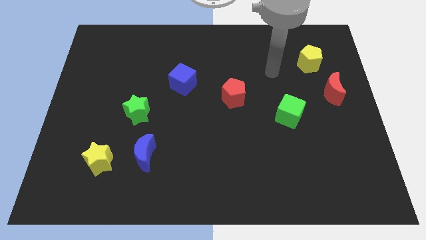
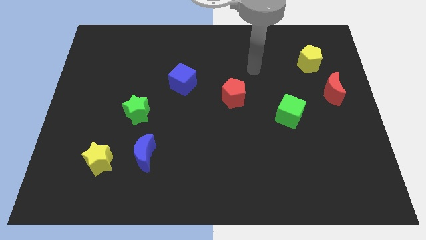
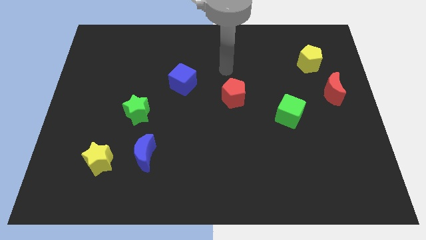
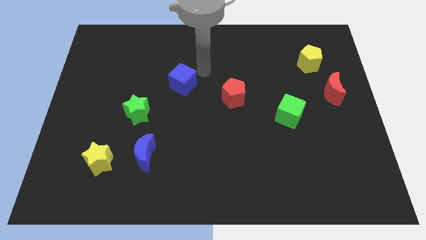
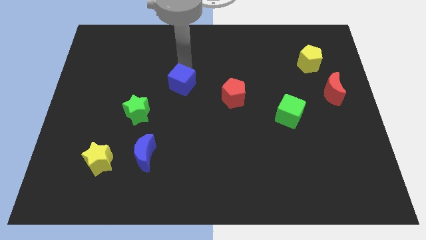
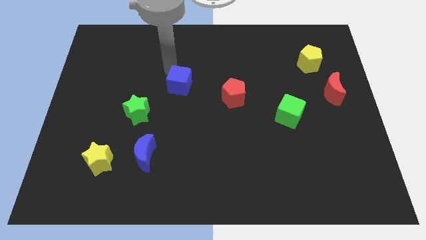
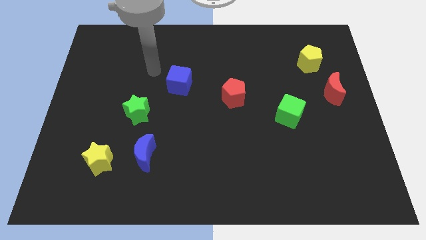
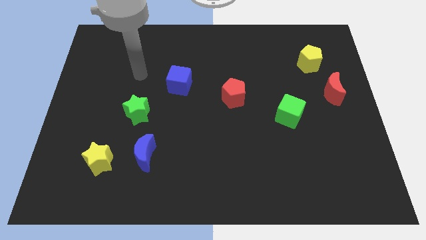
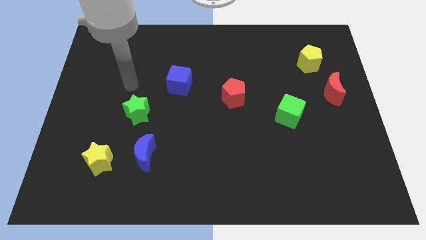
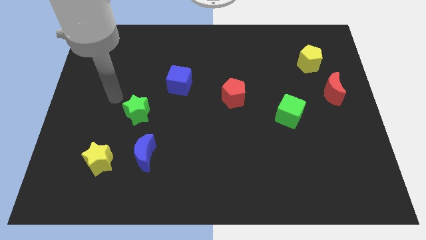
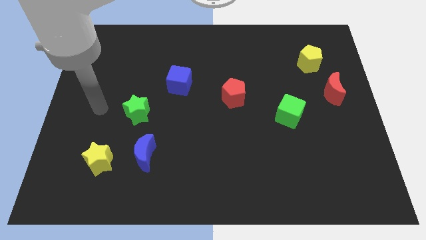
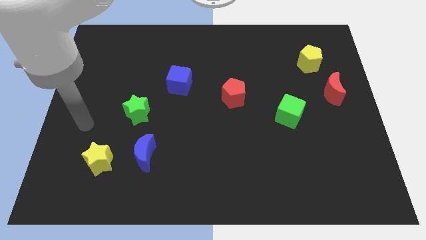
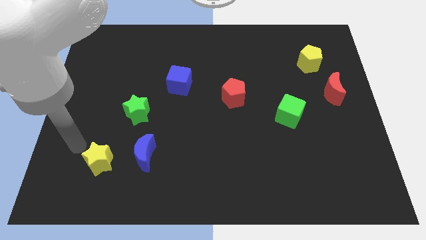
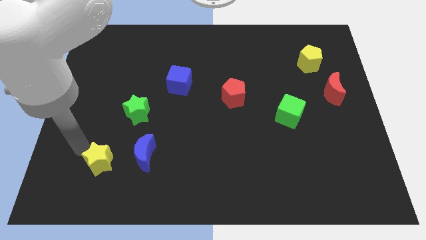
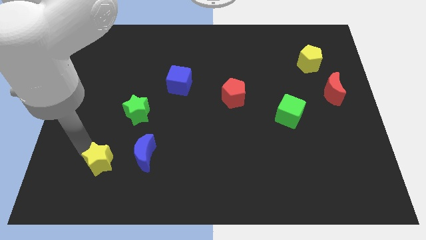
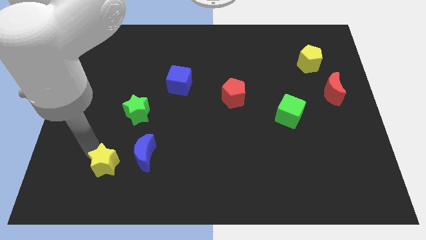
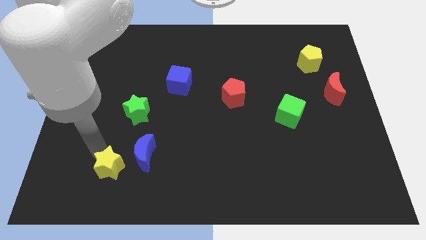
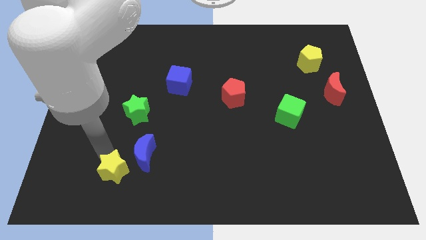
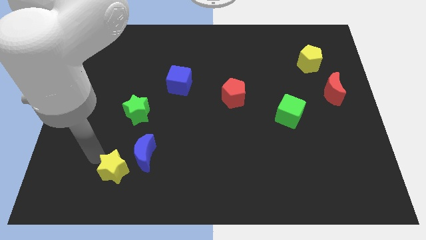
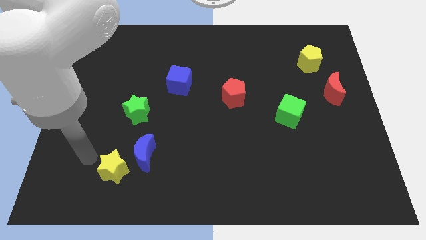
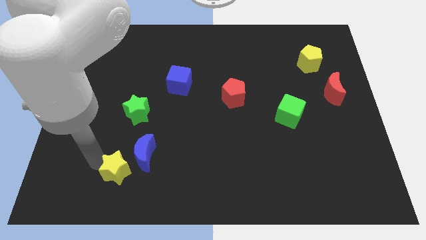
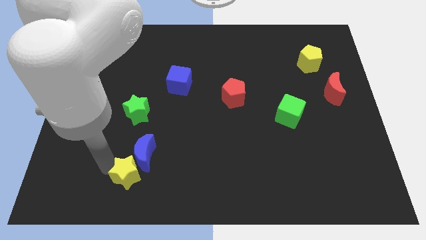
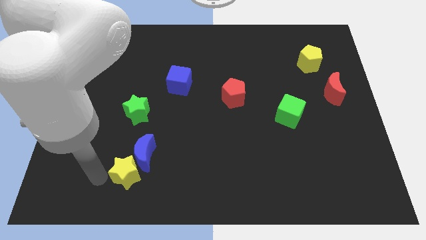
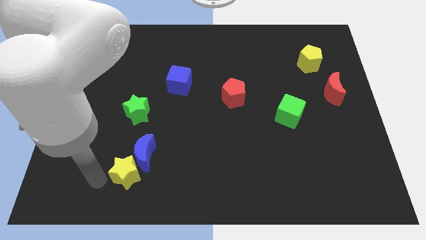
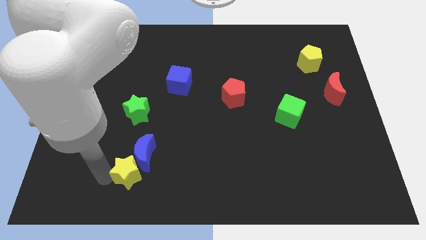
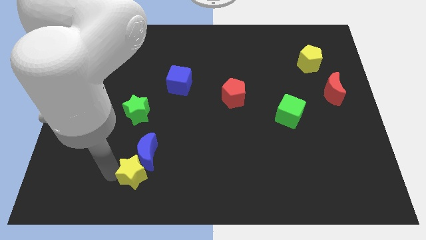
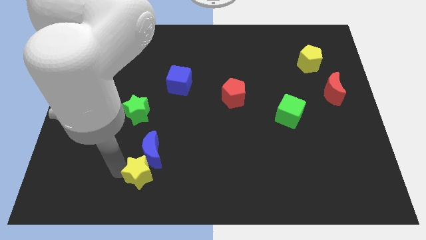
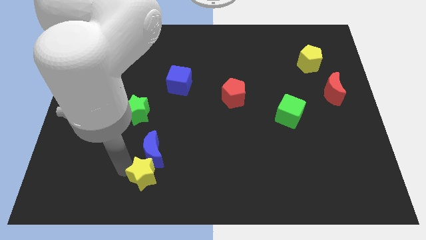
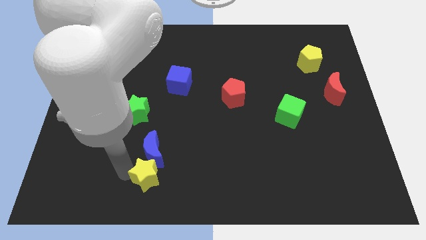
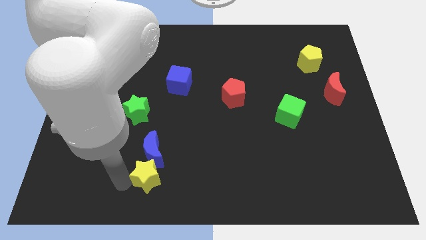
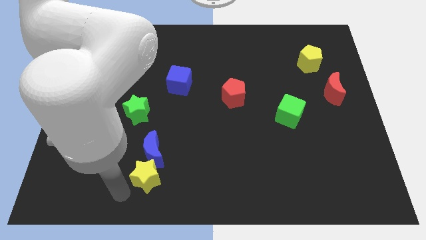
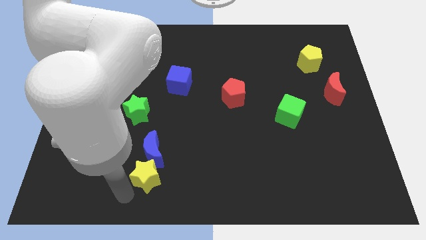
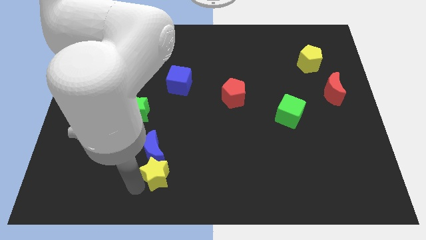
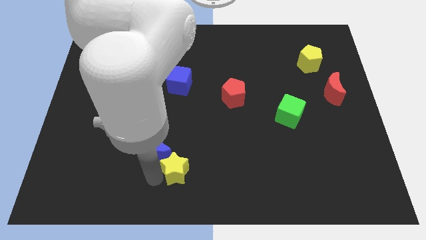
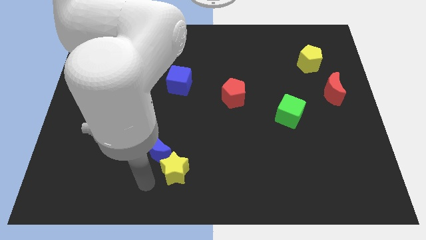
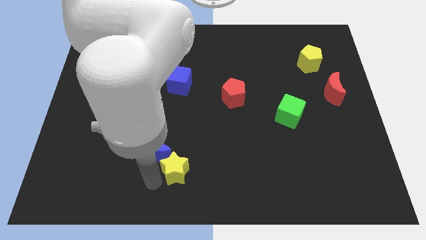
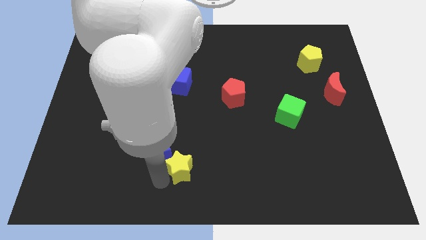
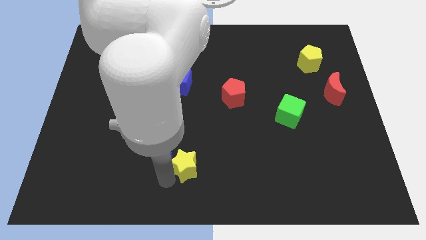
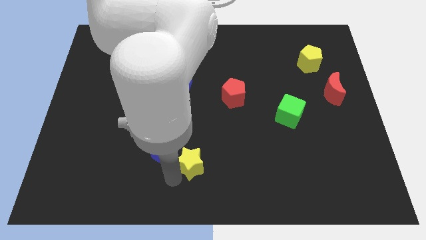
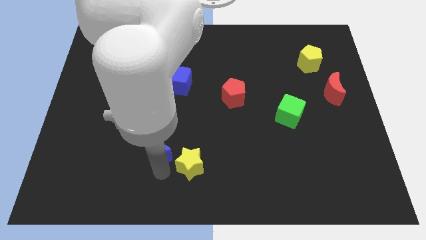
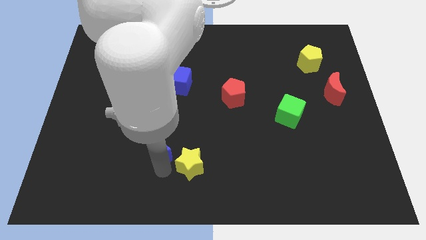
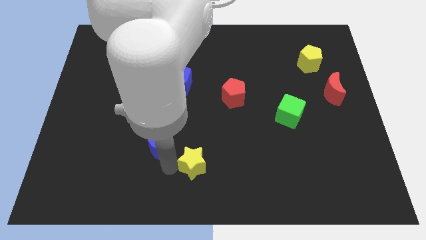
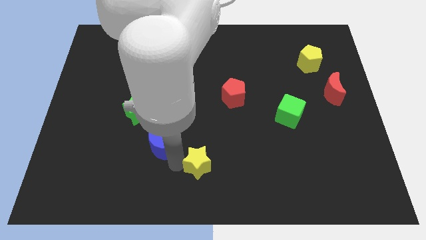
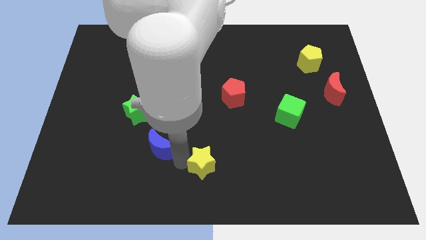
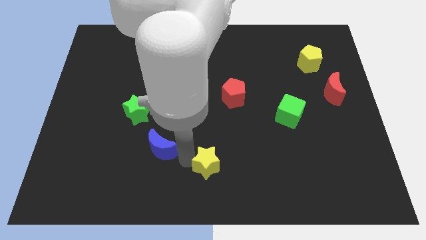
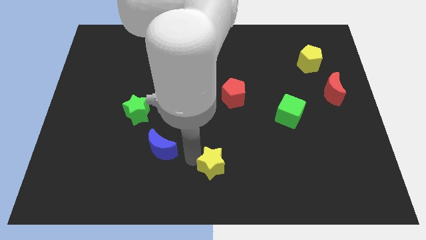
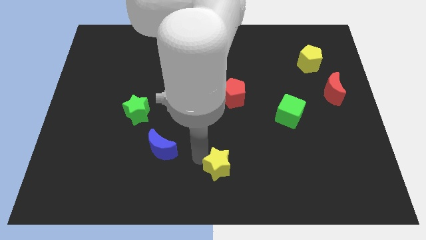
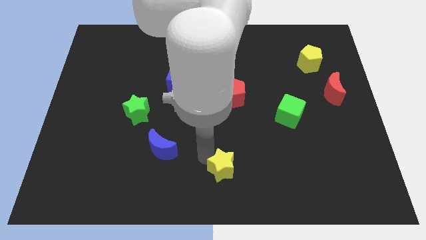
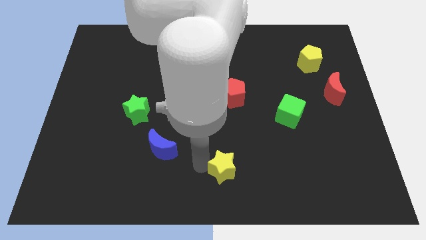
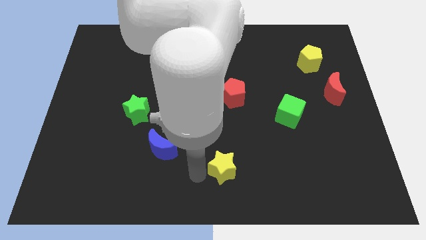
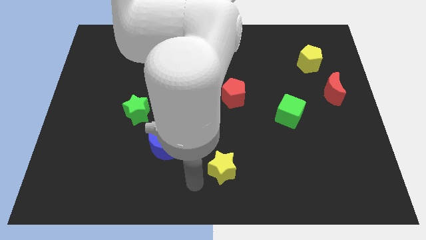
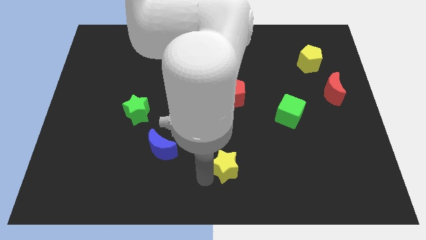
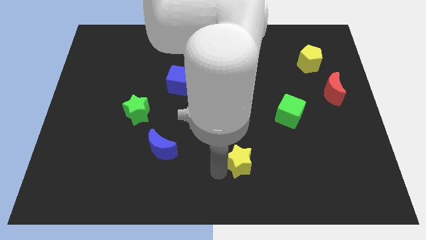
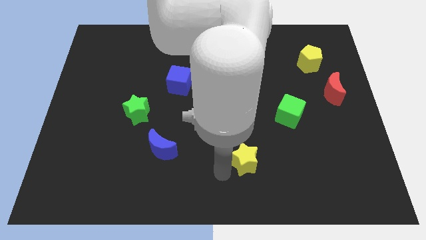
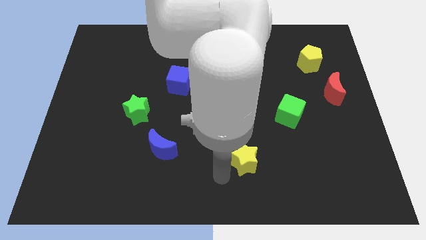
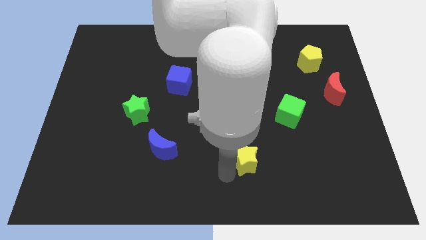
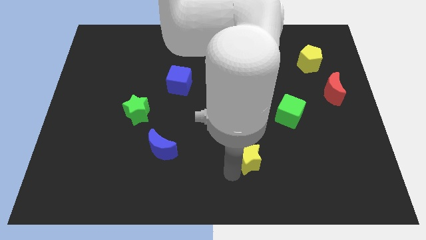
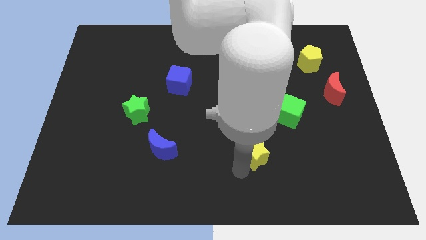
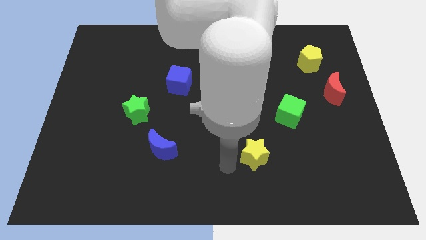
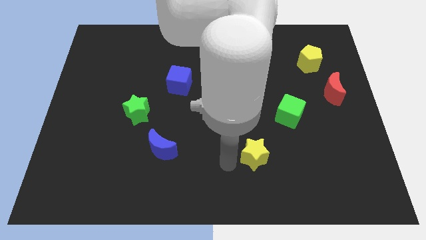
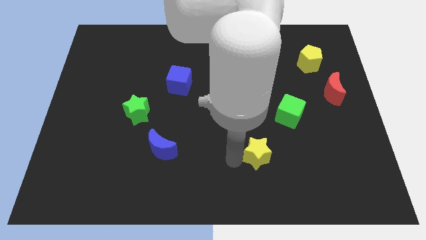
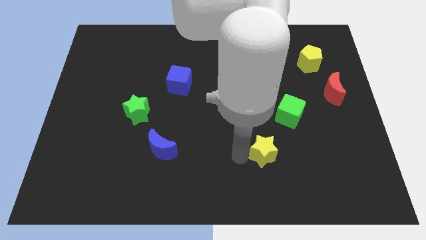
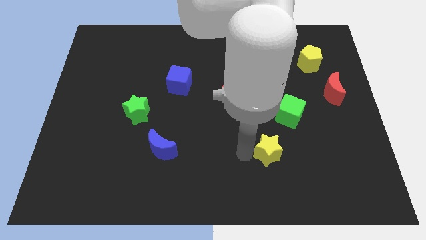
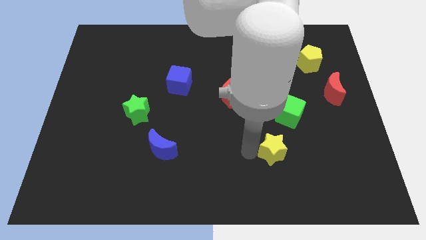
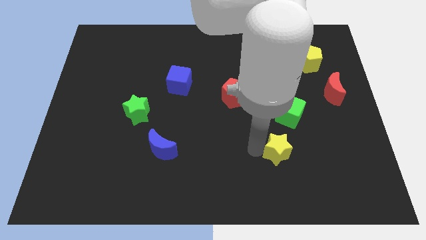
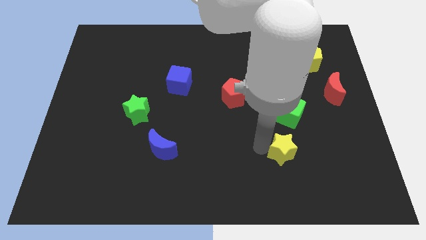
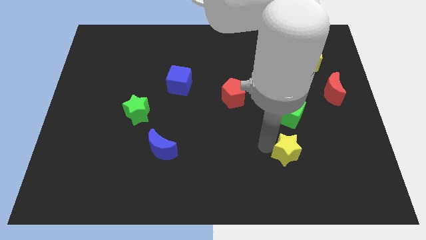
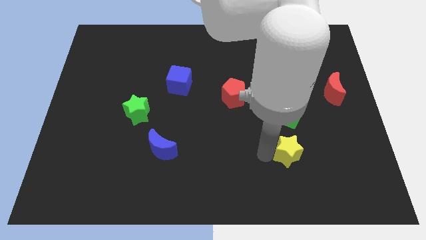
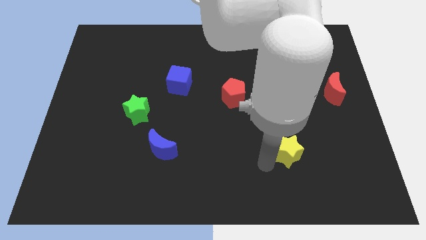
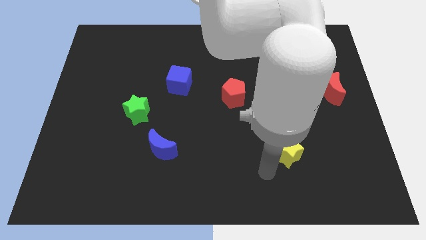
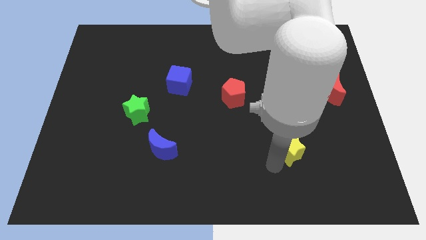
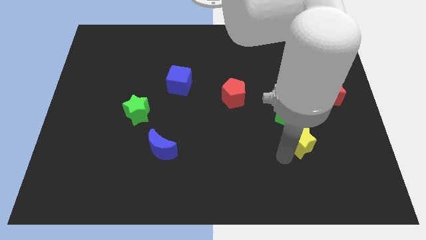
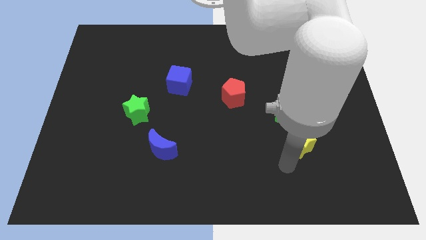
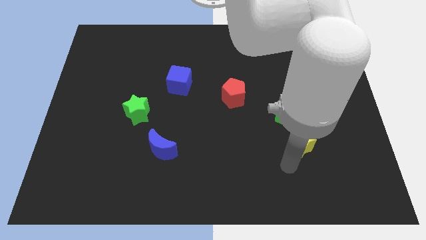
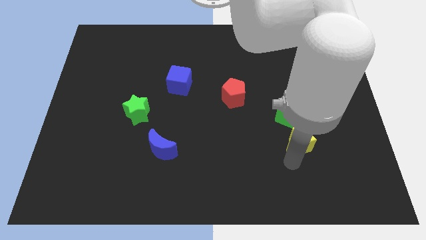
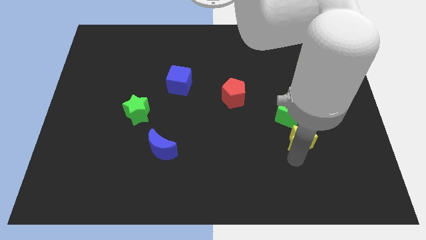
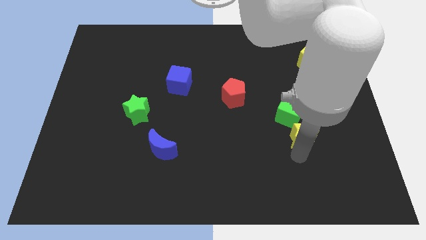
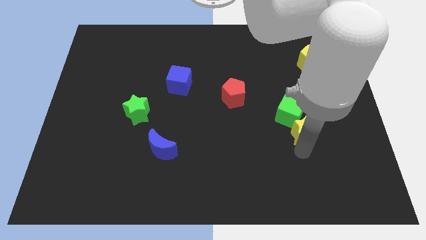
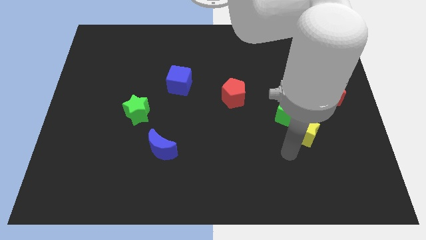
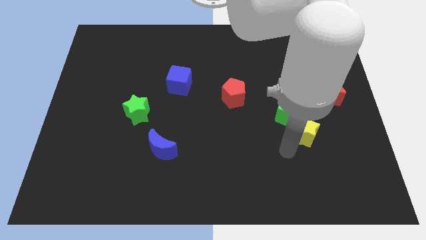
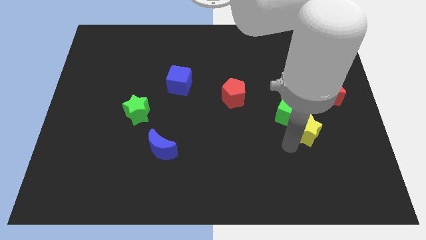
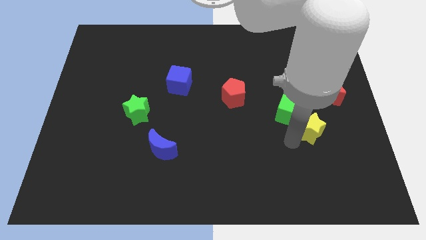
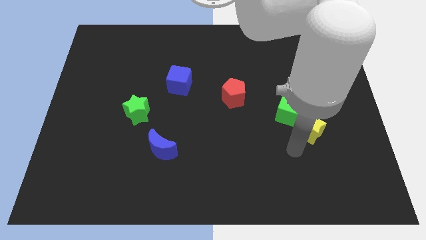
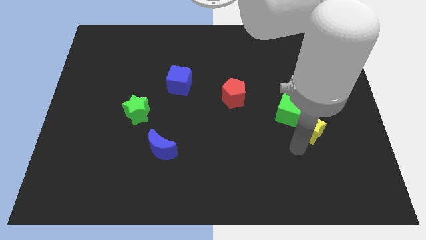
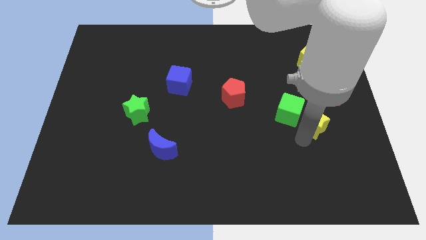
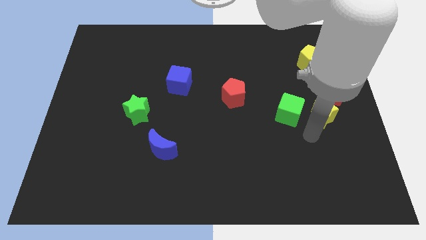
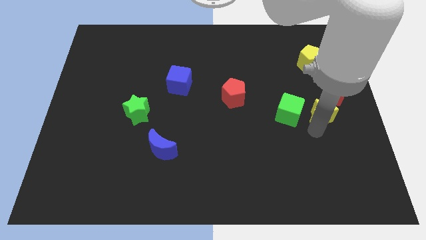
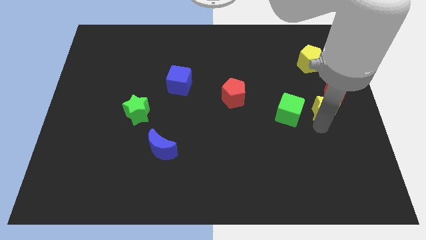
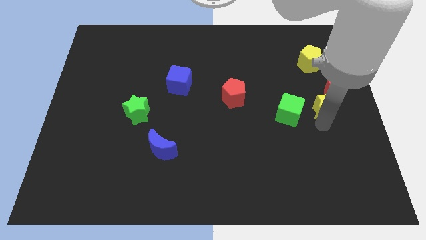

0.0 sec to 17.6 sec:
move the yellow star next to the red moon
